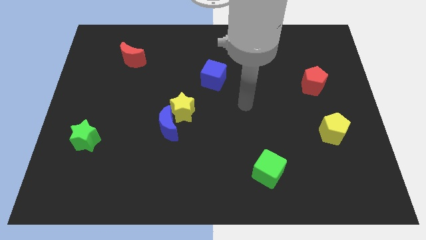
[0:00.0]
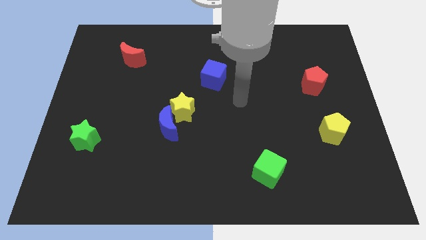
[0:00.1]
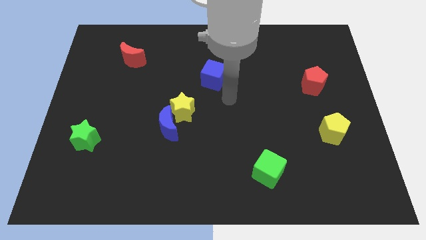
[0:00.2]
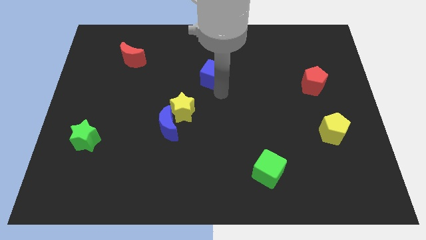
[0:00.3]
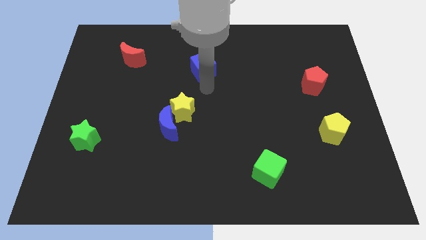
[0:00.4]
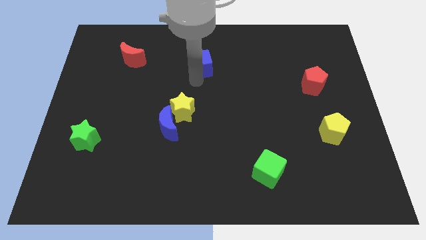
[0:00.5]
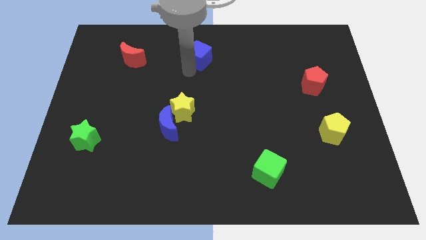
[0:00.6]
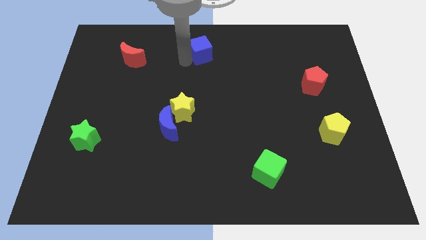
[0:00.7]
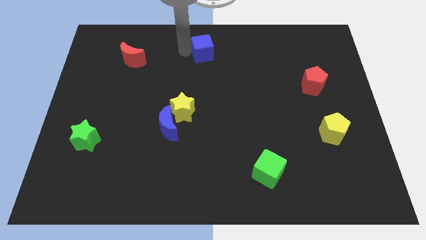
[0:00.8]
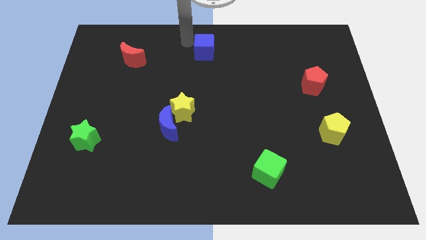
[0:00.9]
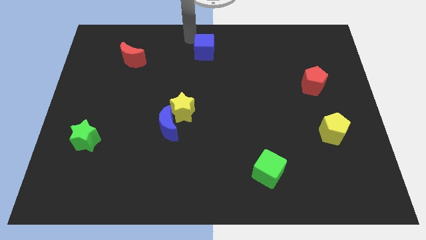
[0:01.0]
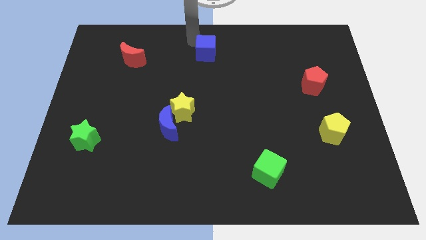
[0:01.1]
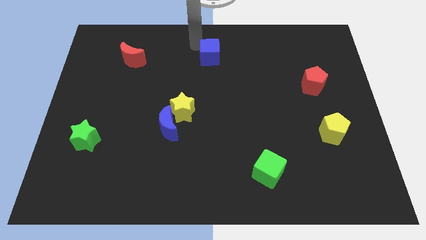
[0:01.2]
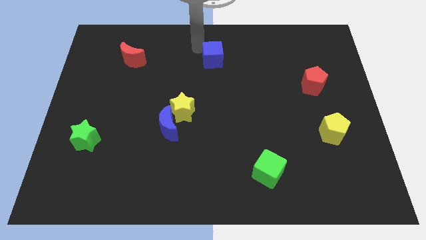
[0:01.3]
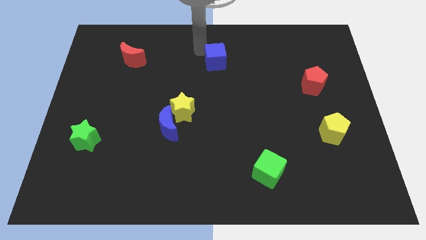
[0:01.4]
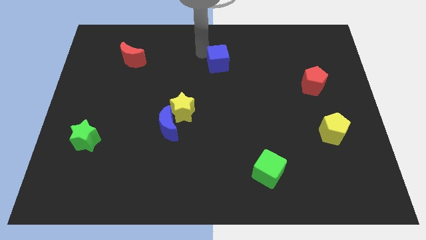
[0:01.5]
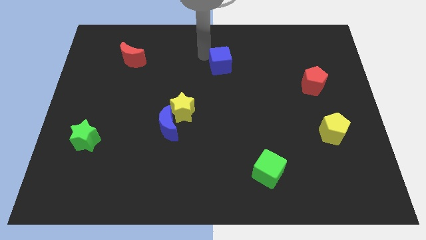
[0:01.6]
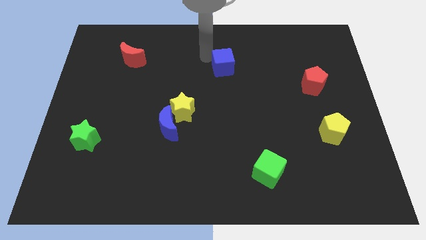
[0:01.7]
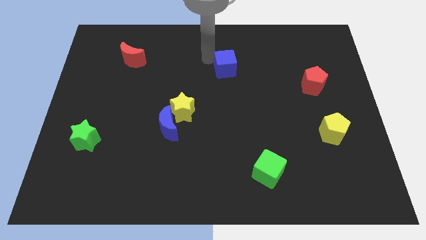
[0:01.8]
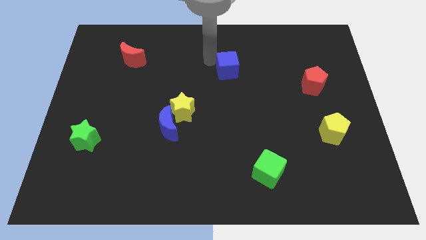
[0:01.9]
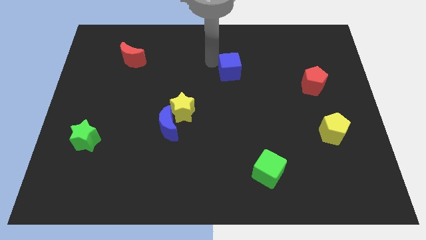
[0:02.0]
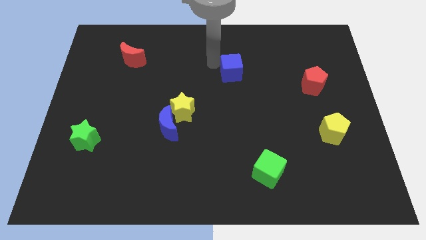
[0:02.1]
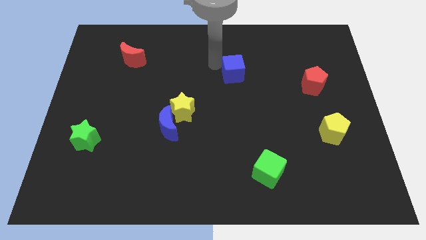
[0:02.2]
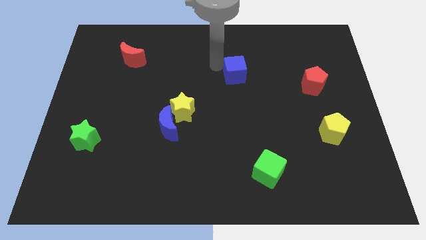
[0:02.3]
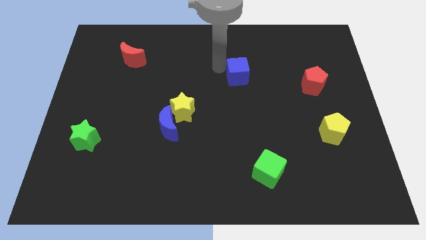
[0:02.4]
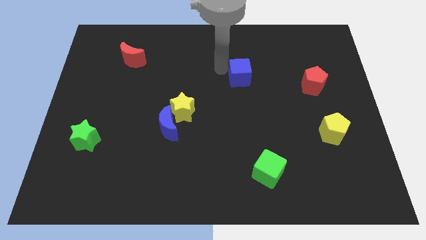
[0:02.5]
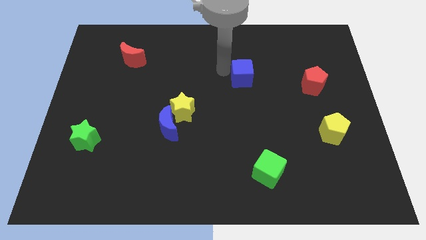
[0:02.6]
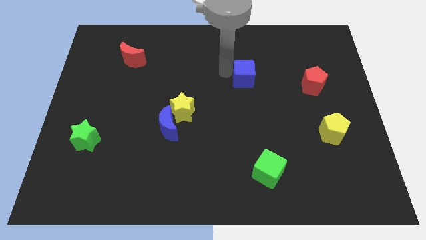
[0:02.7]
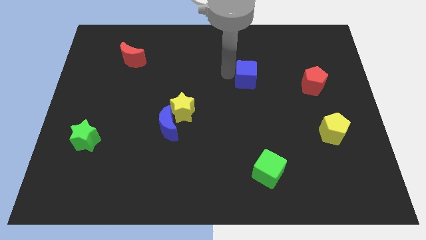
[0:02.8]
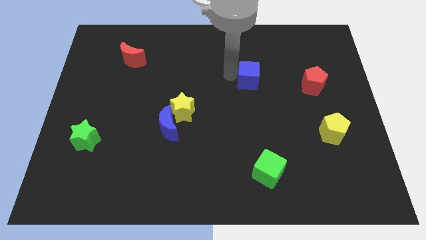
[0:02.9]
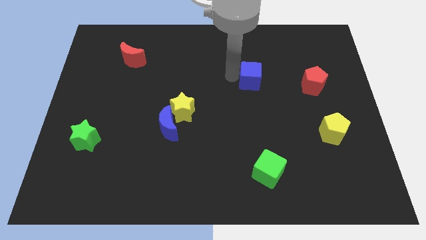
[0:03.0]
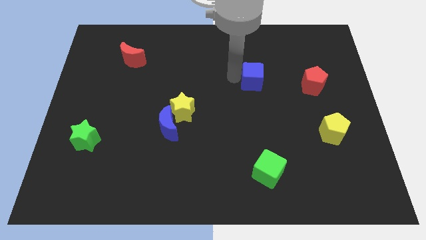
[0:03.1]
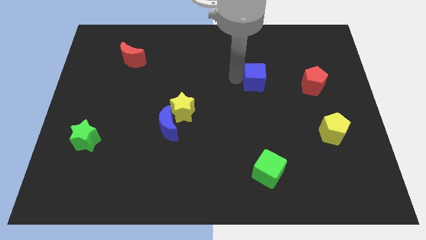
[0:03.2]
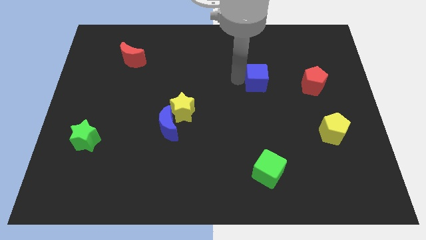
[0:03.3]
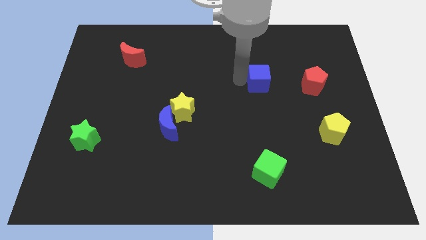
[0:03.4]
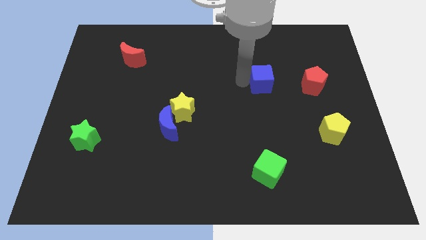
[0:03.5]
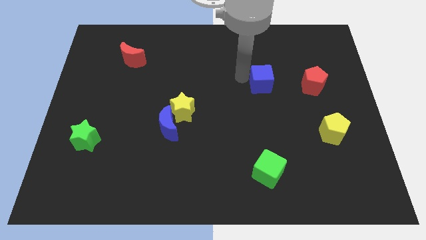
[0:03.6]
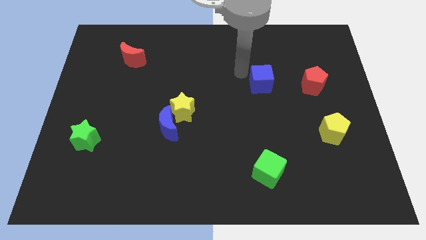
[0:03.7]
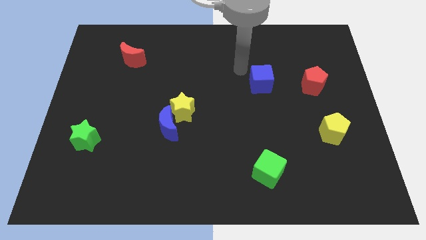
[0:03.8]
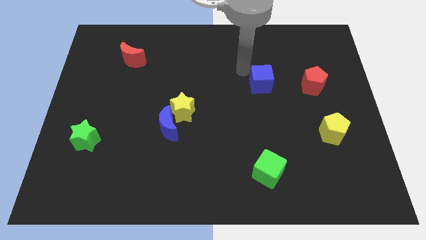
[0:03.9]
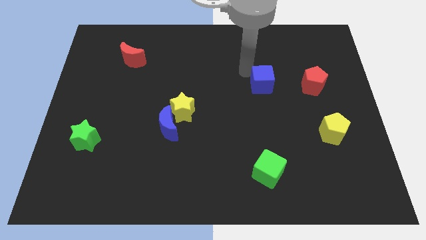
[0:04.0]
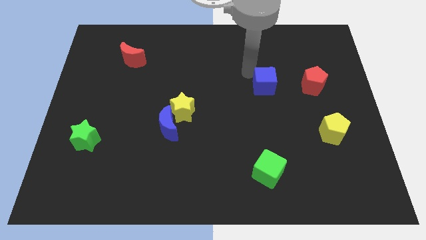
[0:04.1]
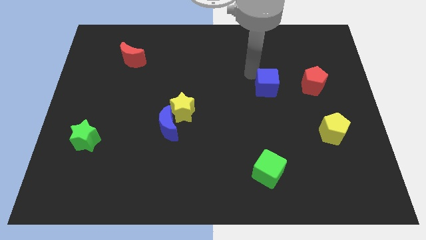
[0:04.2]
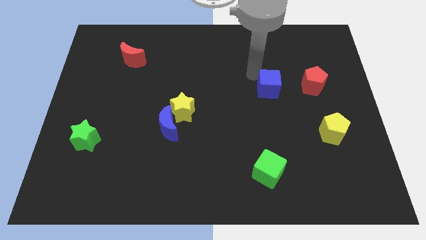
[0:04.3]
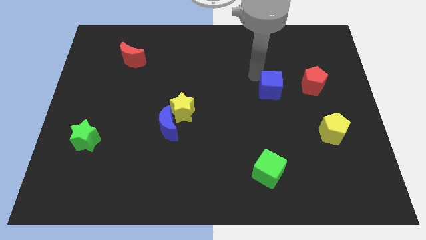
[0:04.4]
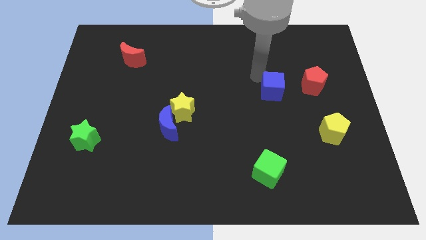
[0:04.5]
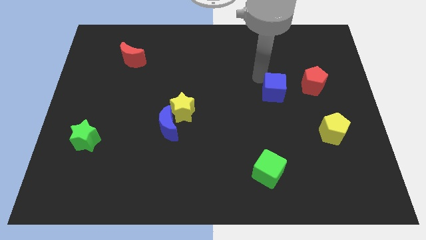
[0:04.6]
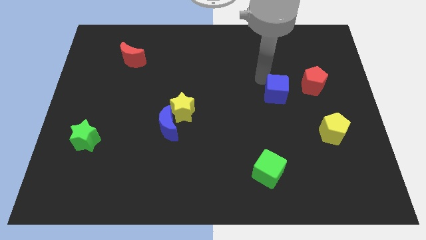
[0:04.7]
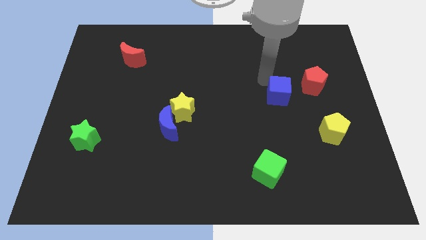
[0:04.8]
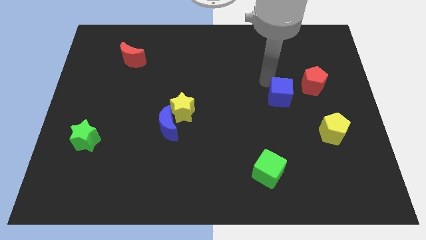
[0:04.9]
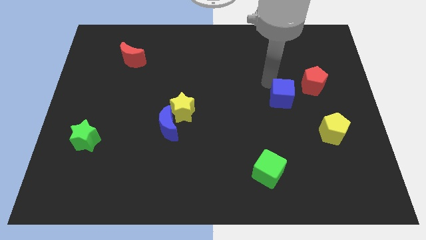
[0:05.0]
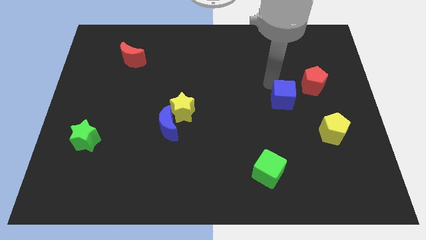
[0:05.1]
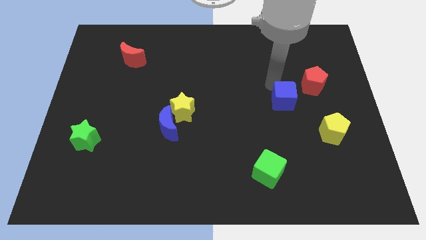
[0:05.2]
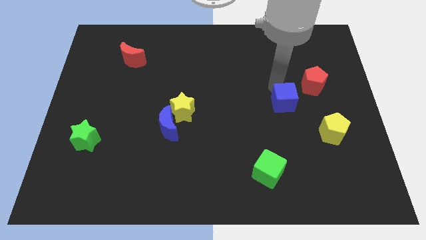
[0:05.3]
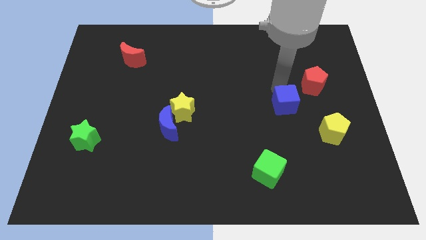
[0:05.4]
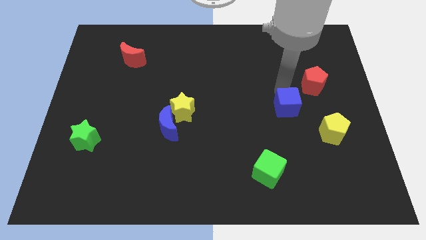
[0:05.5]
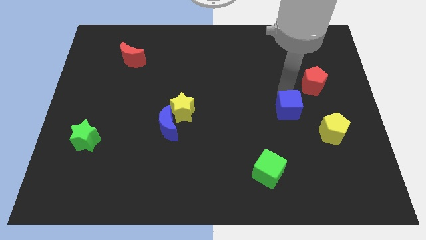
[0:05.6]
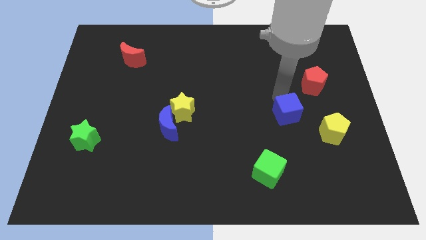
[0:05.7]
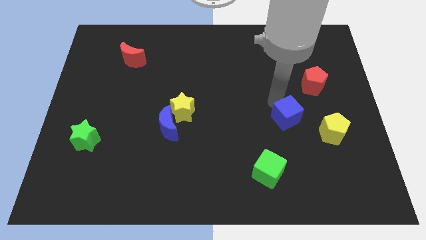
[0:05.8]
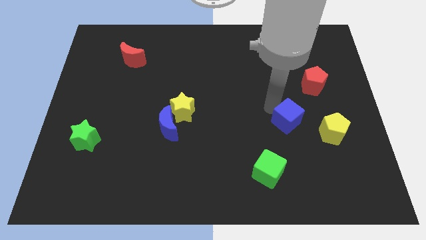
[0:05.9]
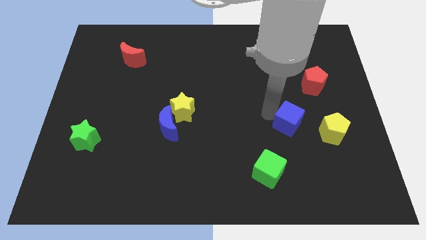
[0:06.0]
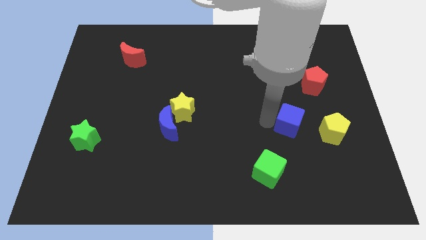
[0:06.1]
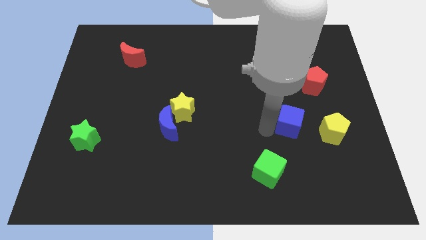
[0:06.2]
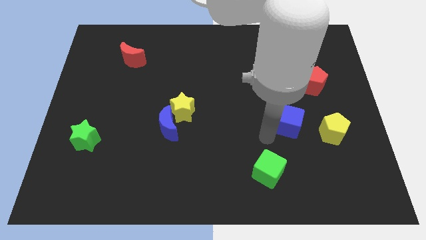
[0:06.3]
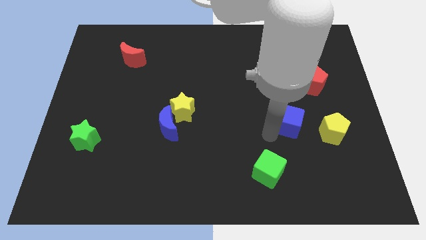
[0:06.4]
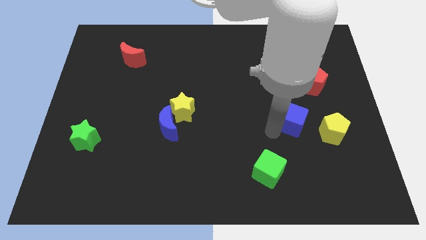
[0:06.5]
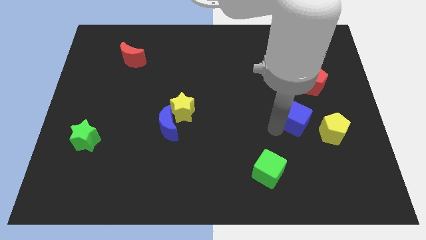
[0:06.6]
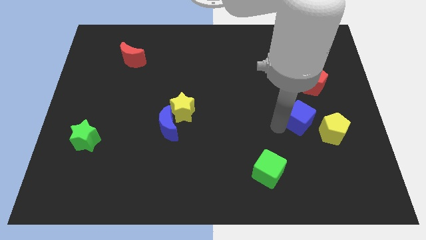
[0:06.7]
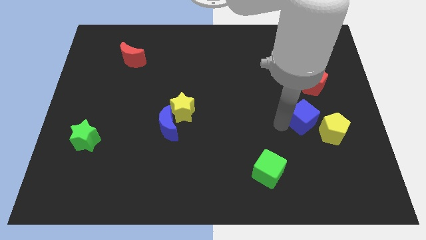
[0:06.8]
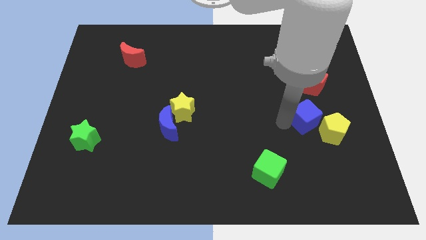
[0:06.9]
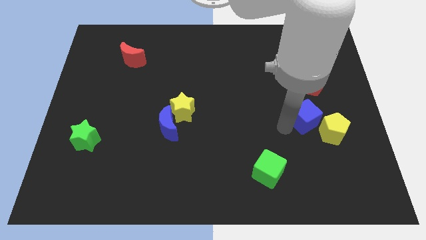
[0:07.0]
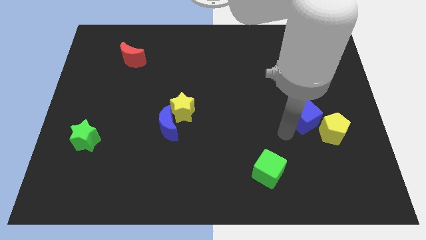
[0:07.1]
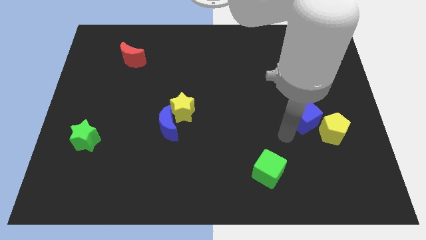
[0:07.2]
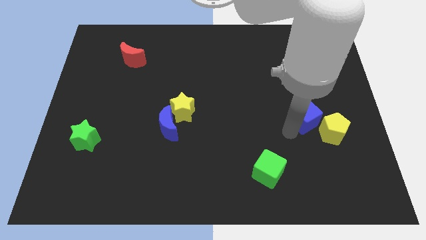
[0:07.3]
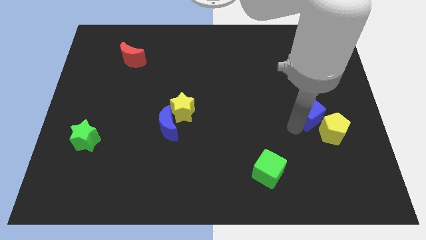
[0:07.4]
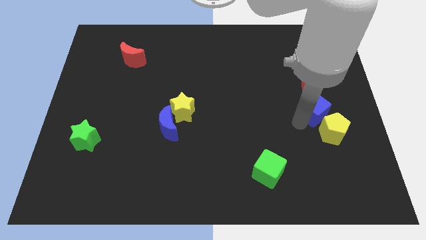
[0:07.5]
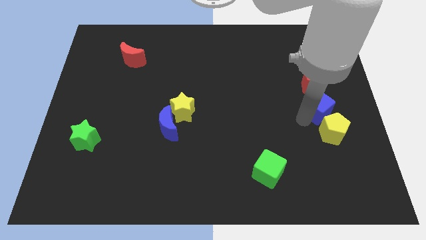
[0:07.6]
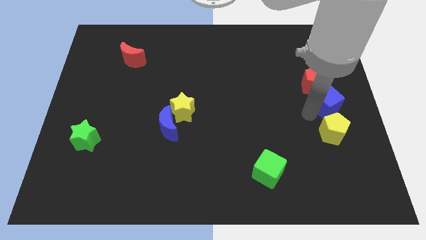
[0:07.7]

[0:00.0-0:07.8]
move the blue cube to the center right

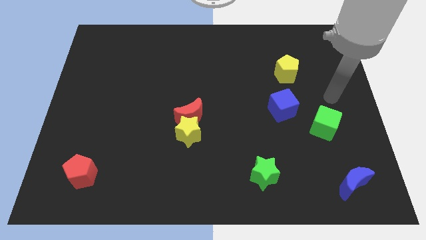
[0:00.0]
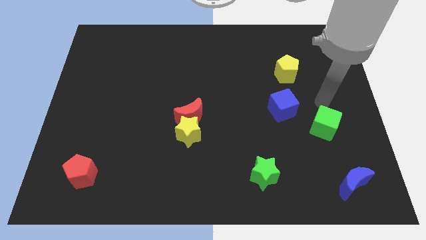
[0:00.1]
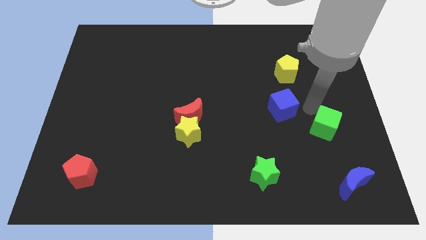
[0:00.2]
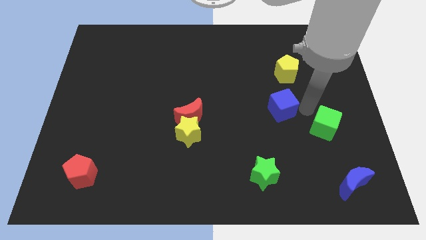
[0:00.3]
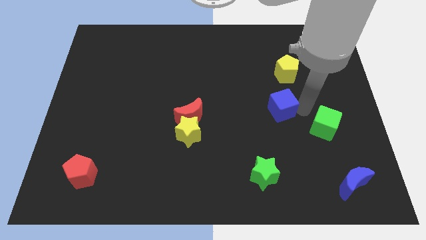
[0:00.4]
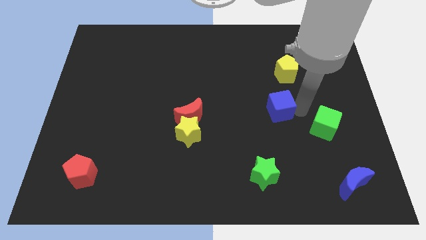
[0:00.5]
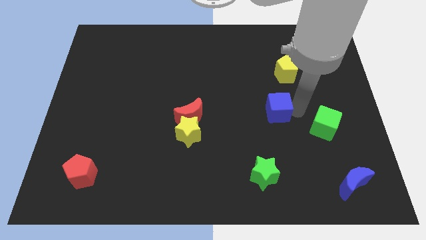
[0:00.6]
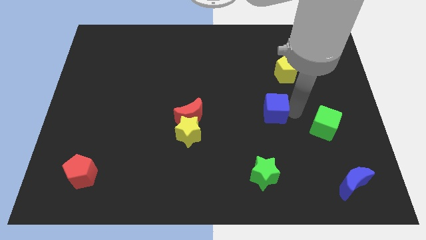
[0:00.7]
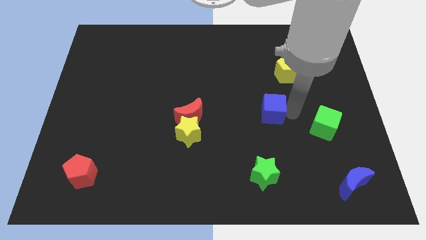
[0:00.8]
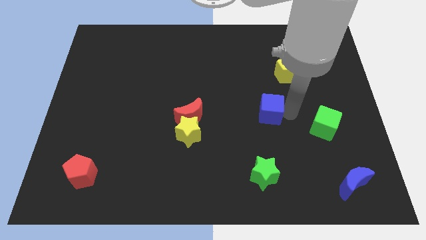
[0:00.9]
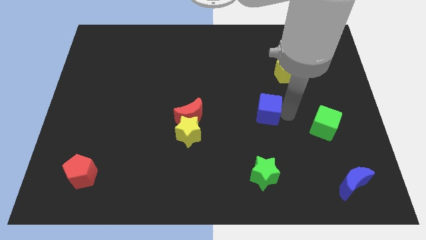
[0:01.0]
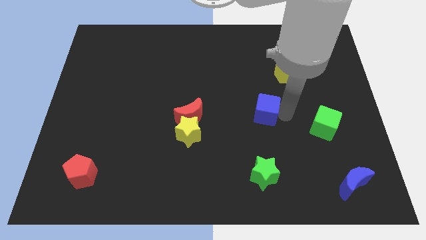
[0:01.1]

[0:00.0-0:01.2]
put the blue cube to the middle of the board
